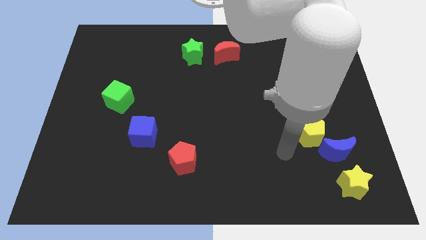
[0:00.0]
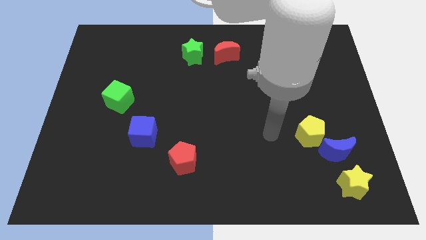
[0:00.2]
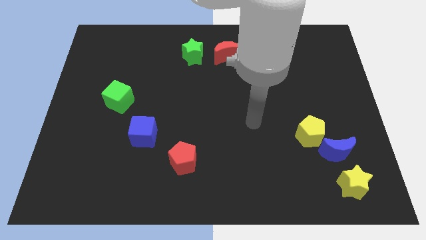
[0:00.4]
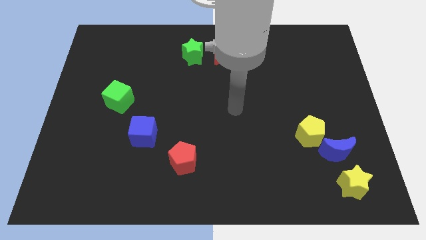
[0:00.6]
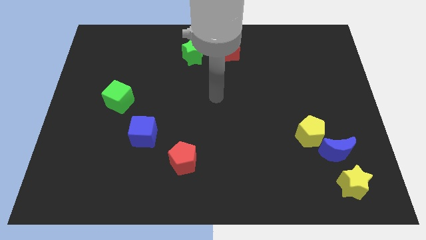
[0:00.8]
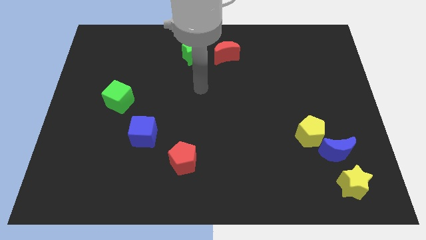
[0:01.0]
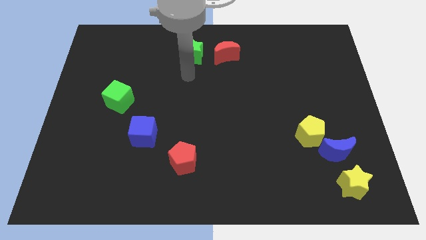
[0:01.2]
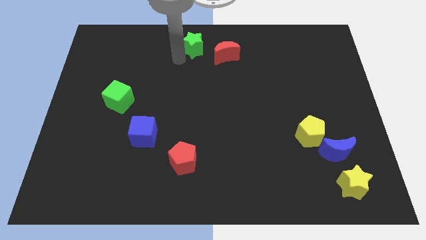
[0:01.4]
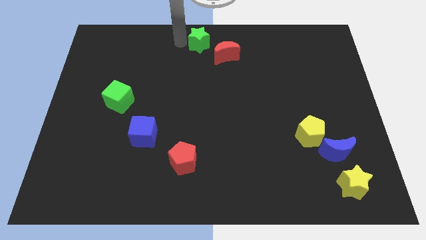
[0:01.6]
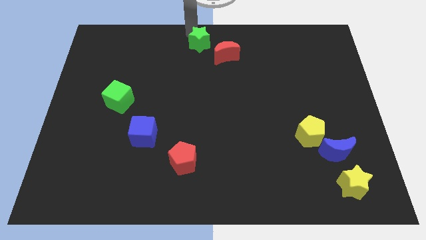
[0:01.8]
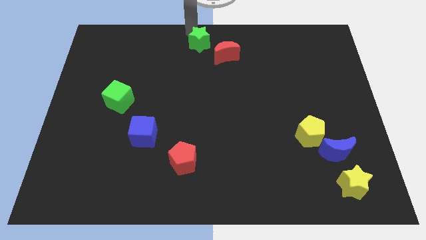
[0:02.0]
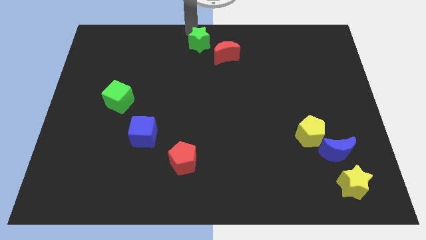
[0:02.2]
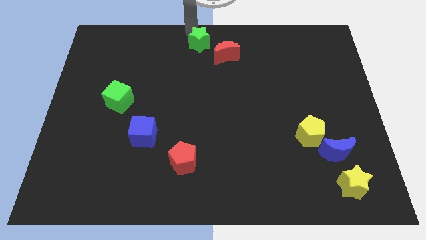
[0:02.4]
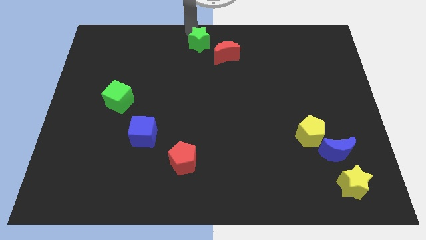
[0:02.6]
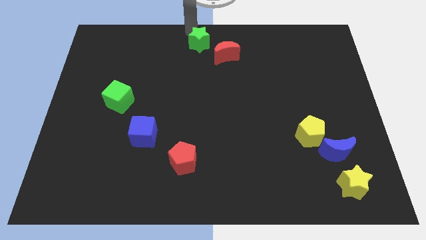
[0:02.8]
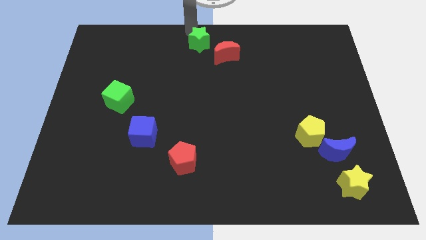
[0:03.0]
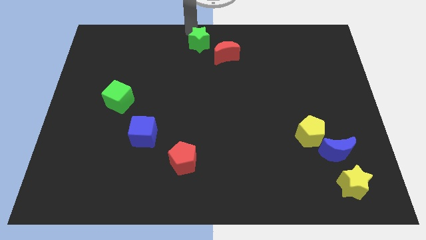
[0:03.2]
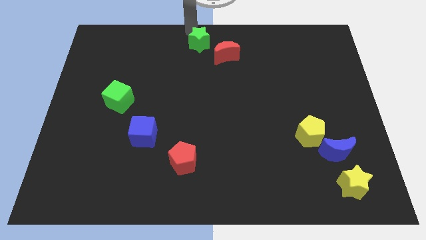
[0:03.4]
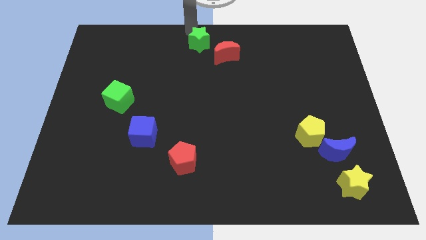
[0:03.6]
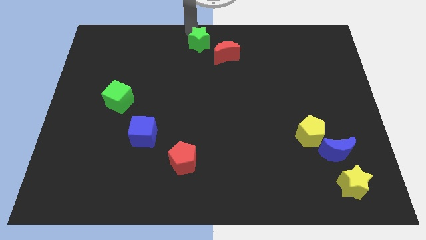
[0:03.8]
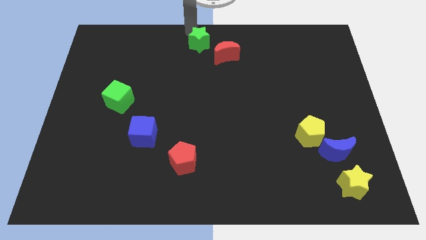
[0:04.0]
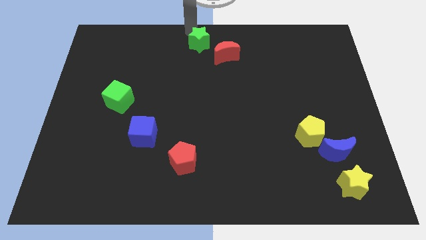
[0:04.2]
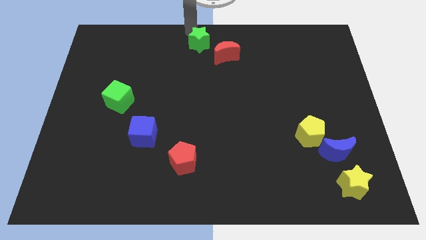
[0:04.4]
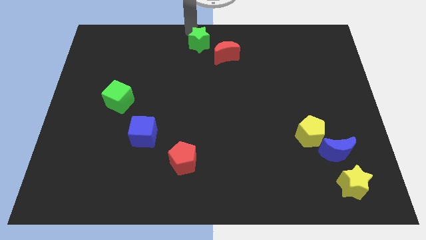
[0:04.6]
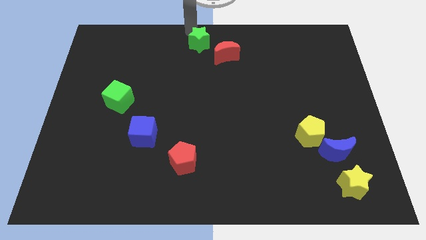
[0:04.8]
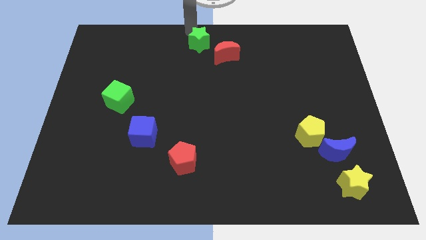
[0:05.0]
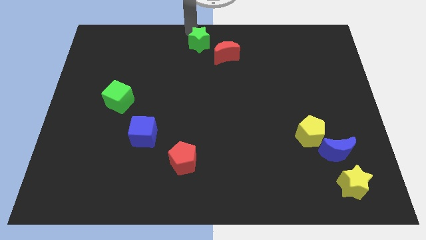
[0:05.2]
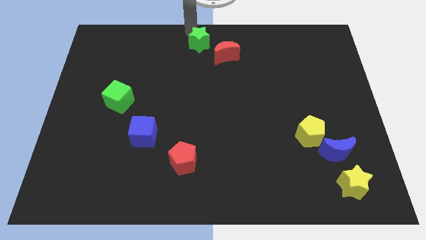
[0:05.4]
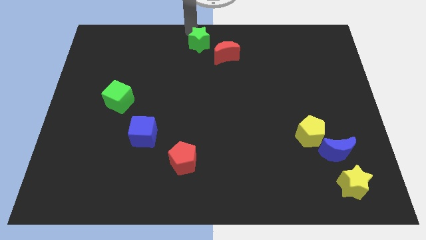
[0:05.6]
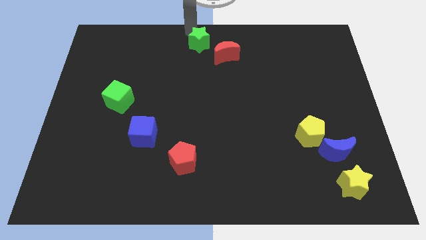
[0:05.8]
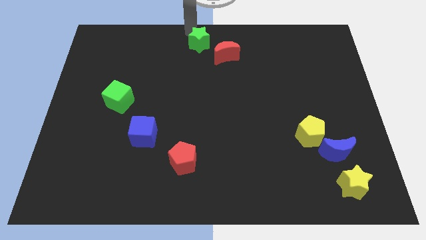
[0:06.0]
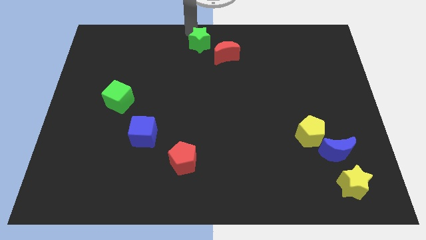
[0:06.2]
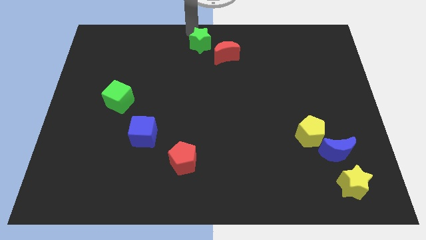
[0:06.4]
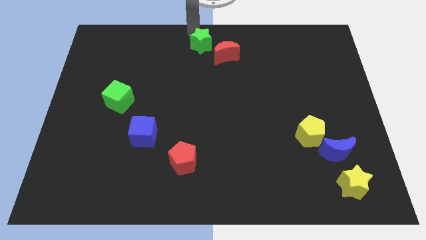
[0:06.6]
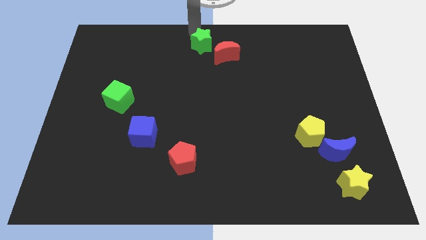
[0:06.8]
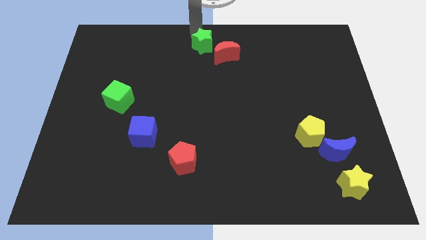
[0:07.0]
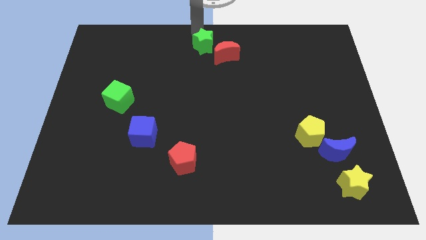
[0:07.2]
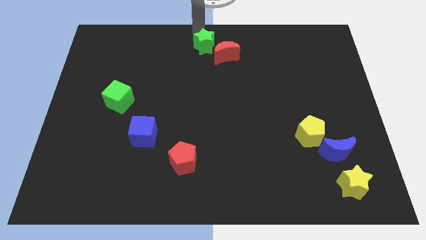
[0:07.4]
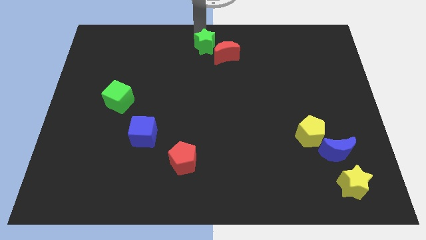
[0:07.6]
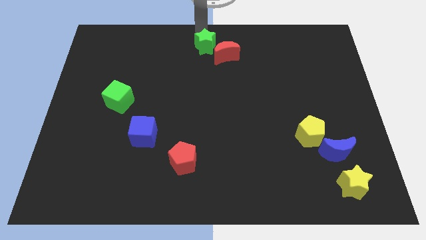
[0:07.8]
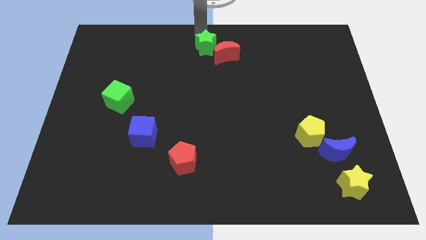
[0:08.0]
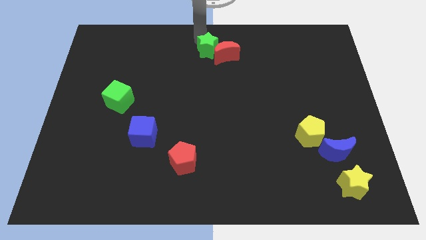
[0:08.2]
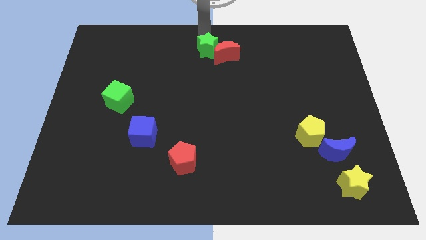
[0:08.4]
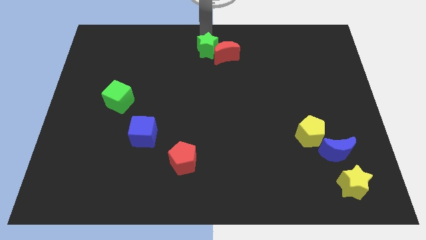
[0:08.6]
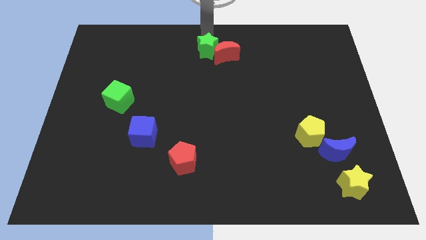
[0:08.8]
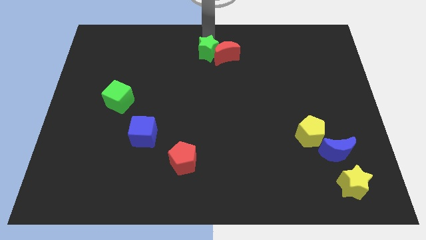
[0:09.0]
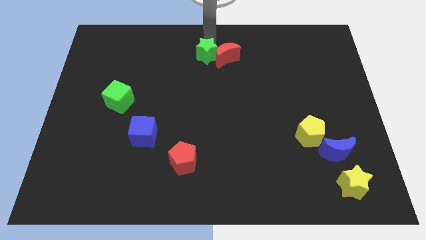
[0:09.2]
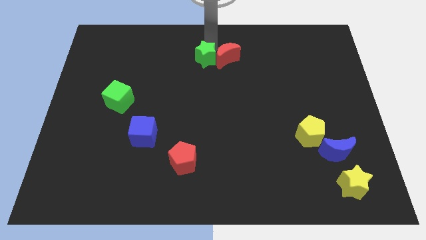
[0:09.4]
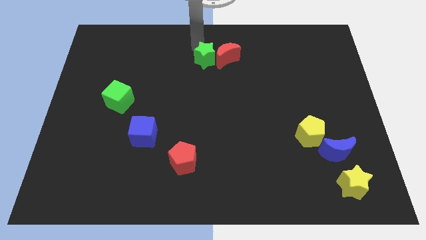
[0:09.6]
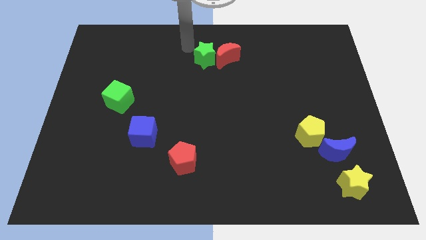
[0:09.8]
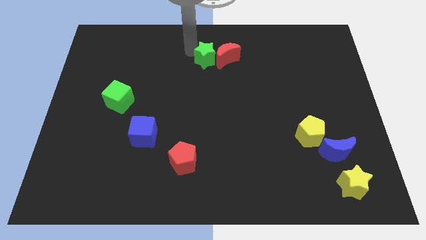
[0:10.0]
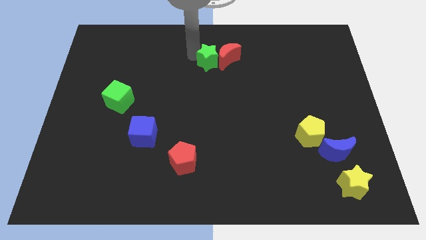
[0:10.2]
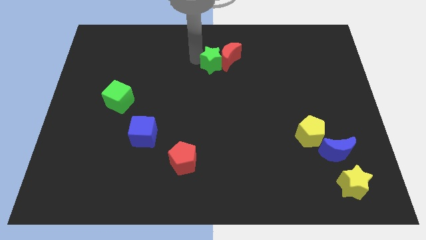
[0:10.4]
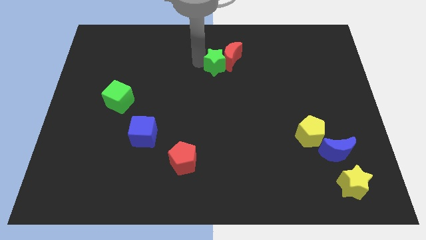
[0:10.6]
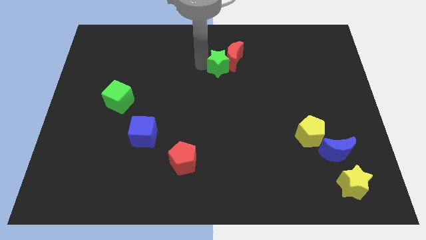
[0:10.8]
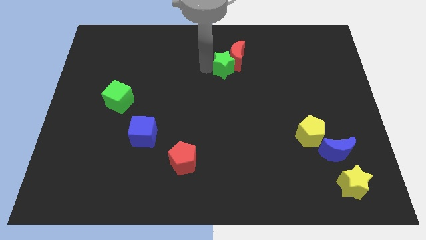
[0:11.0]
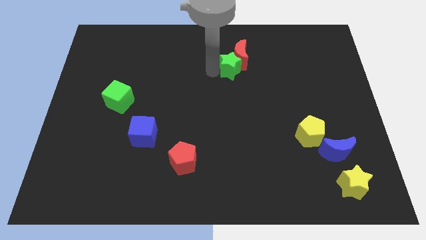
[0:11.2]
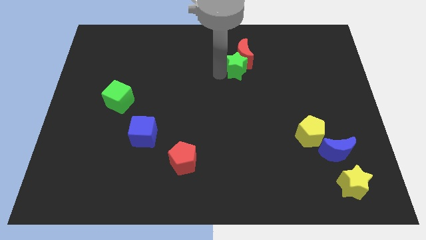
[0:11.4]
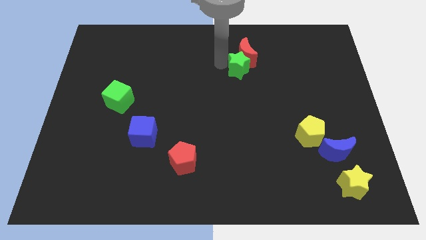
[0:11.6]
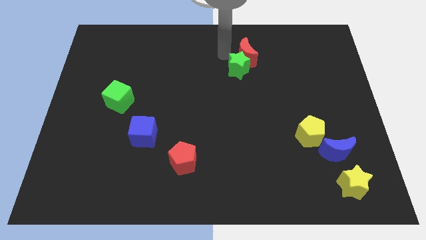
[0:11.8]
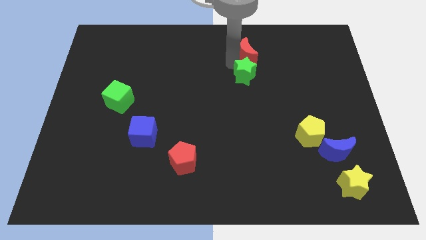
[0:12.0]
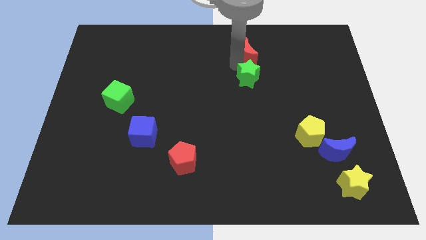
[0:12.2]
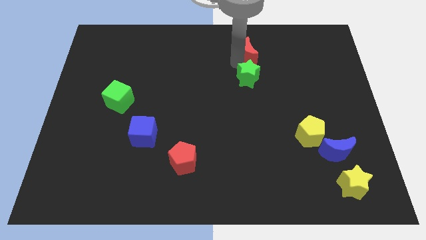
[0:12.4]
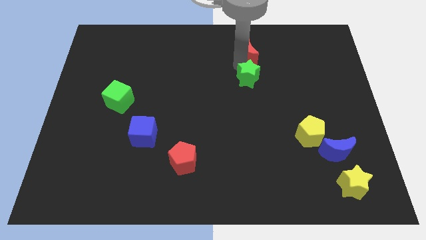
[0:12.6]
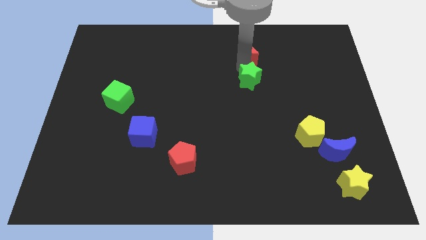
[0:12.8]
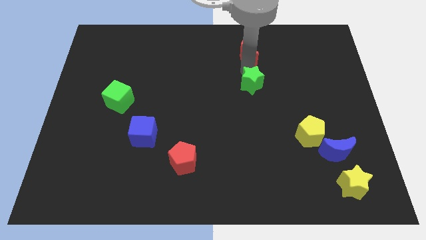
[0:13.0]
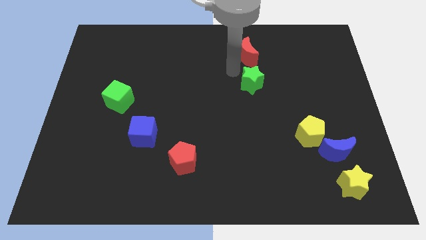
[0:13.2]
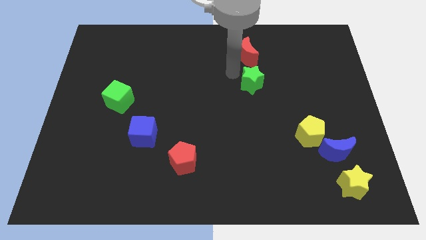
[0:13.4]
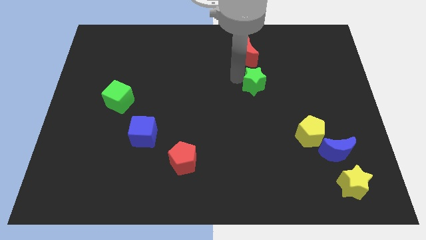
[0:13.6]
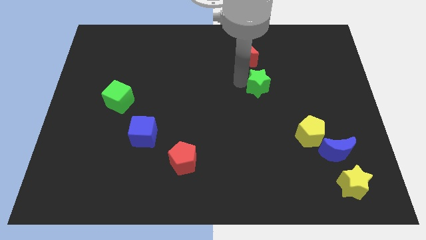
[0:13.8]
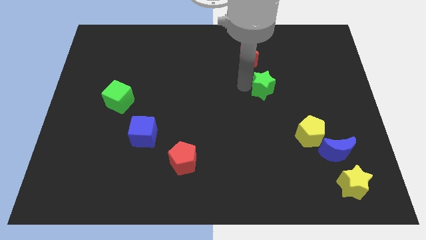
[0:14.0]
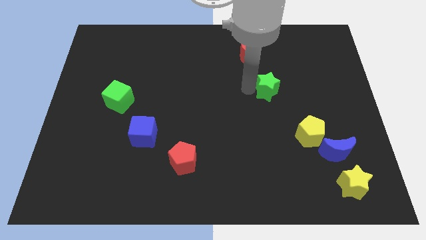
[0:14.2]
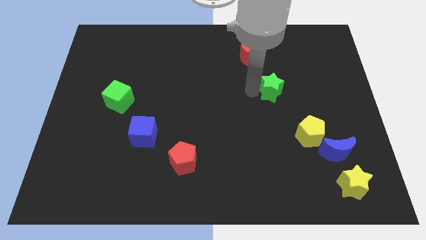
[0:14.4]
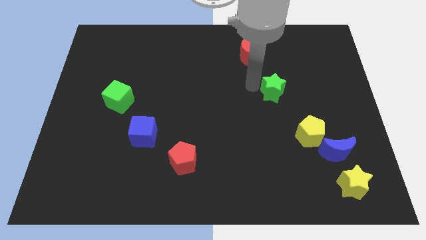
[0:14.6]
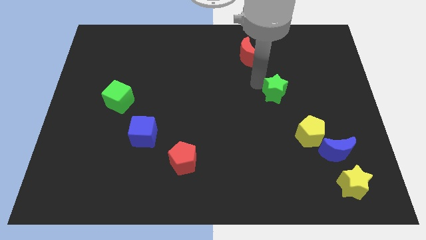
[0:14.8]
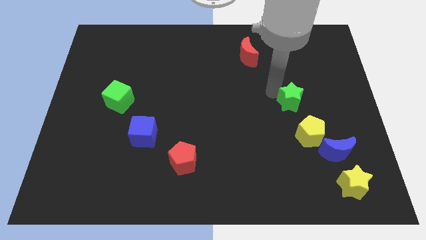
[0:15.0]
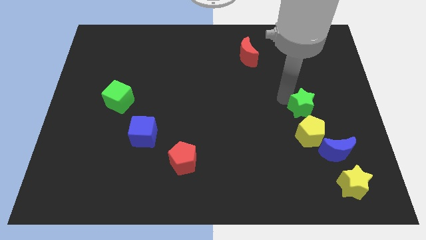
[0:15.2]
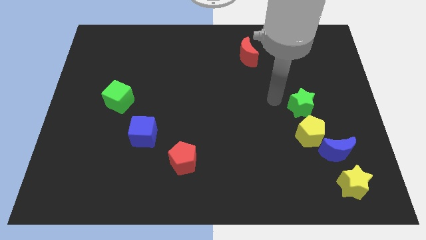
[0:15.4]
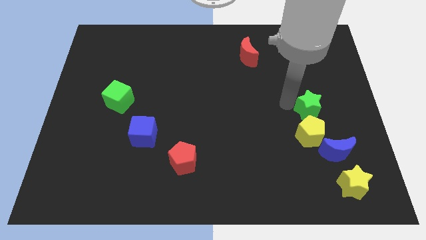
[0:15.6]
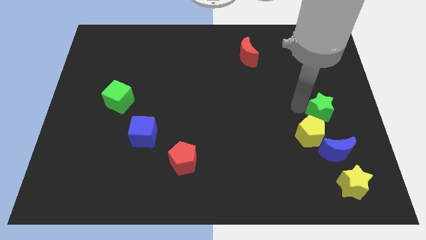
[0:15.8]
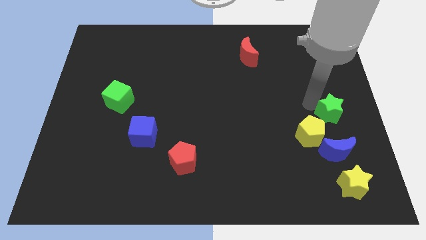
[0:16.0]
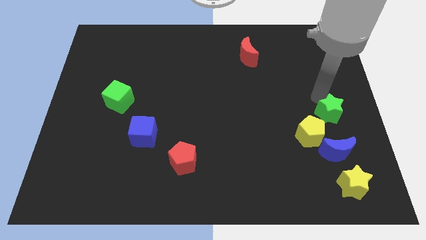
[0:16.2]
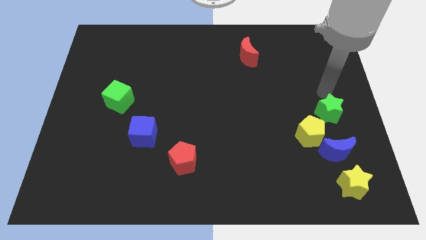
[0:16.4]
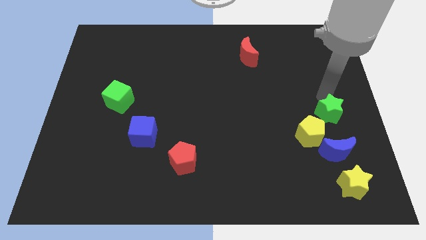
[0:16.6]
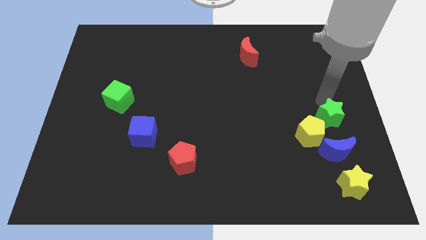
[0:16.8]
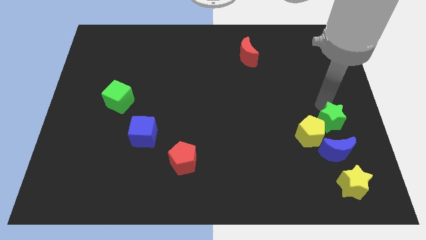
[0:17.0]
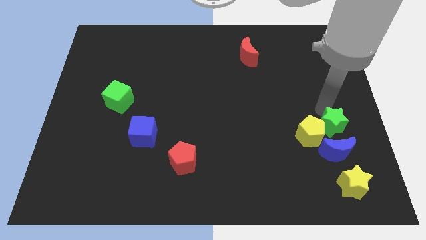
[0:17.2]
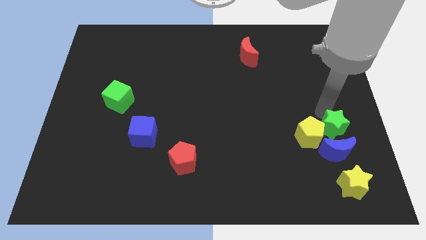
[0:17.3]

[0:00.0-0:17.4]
move the green star towards the blue moon
